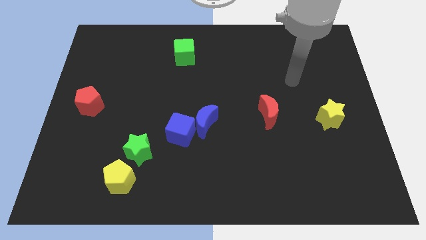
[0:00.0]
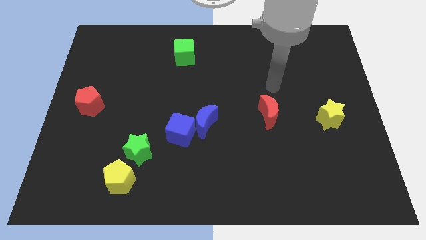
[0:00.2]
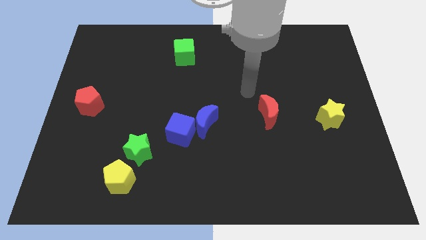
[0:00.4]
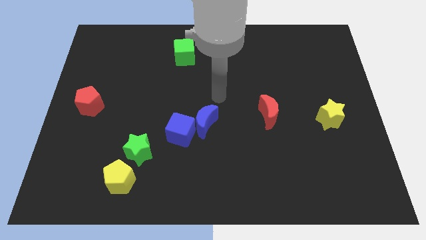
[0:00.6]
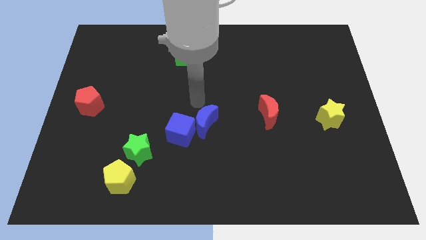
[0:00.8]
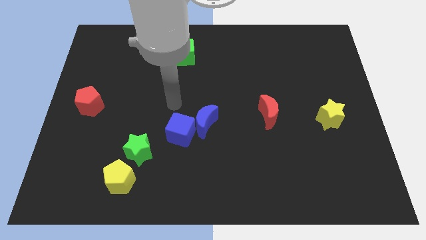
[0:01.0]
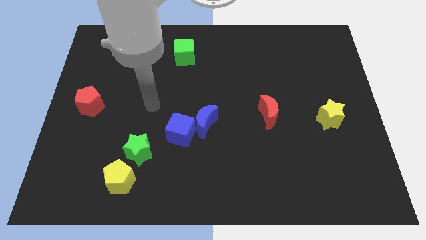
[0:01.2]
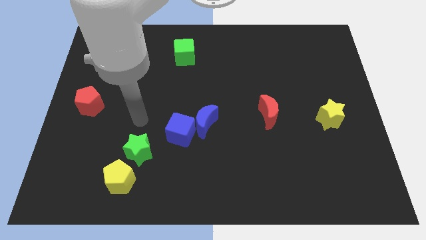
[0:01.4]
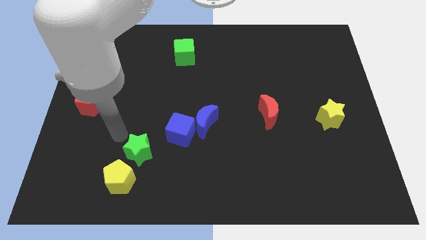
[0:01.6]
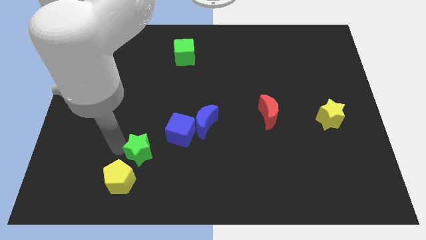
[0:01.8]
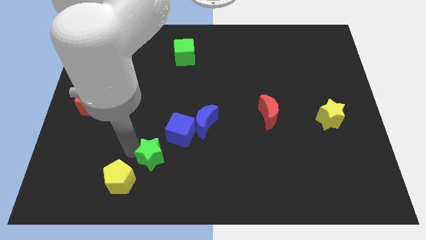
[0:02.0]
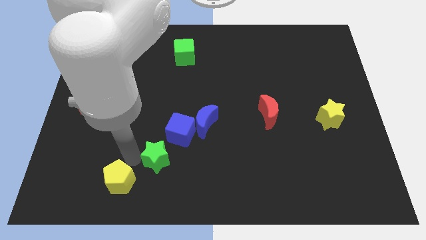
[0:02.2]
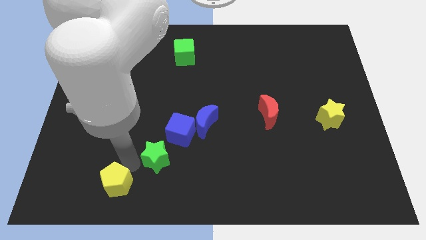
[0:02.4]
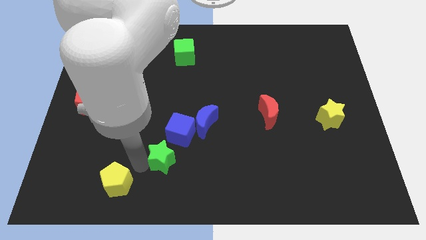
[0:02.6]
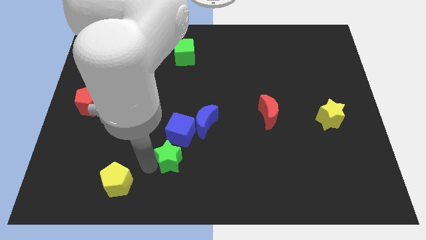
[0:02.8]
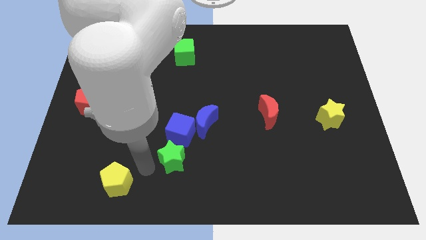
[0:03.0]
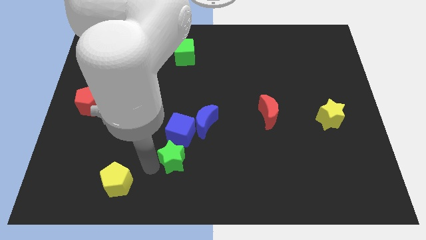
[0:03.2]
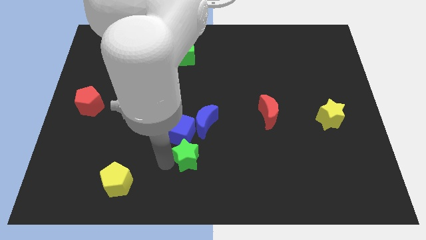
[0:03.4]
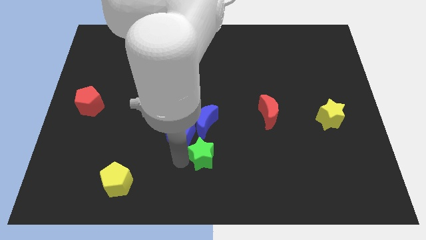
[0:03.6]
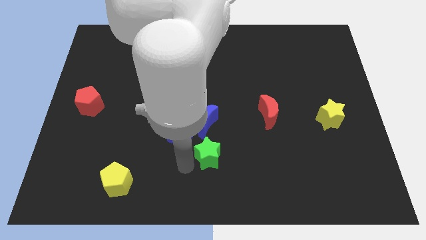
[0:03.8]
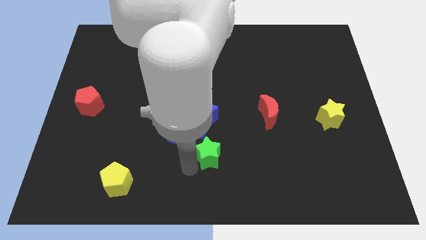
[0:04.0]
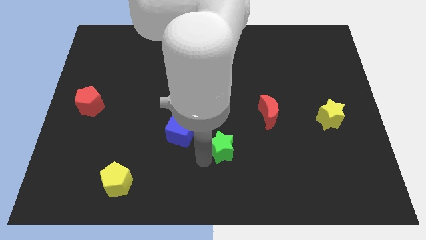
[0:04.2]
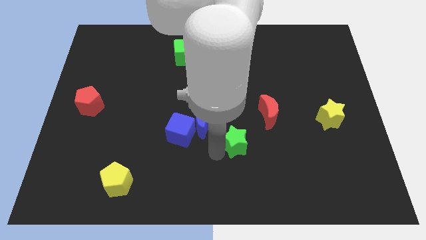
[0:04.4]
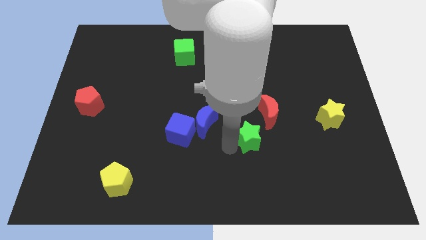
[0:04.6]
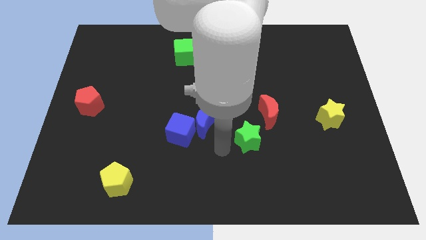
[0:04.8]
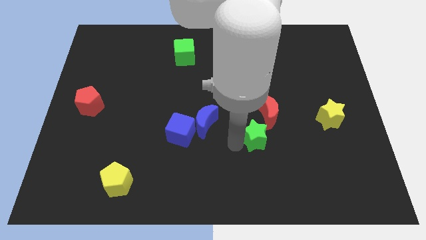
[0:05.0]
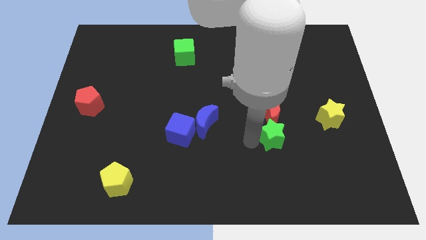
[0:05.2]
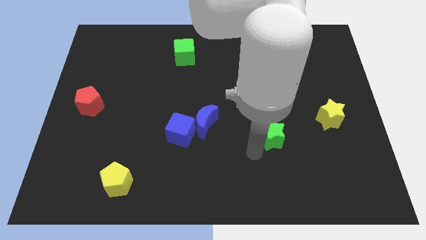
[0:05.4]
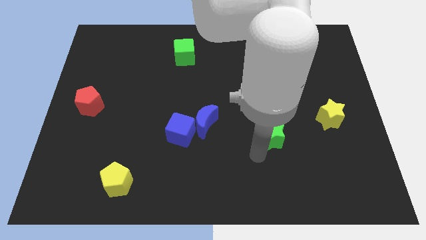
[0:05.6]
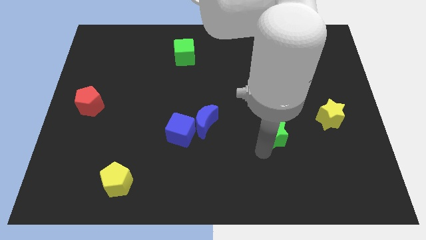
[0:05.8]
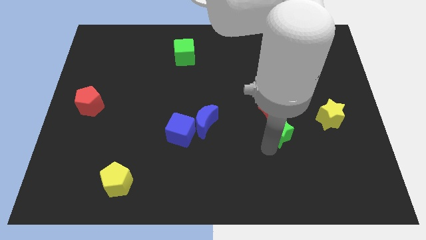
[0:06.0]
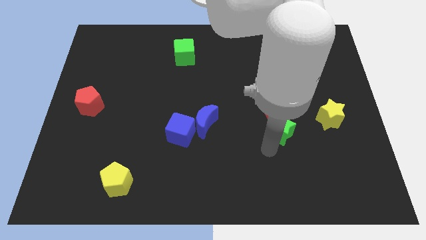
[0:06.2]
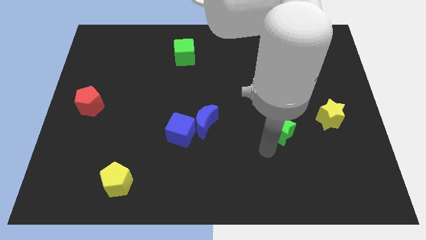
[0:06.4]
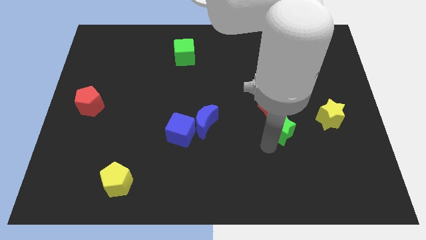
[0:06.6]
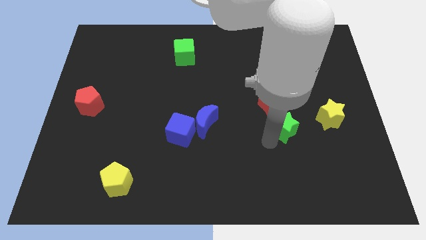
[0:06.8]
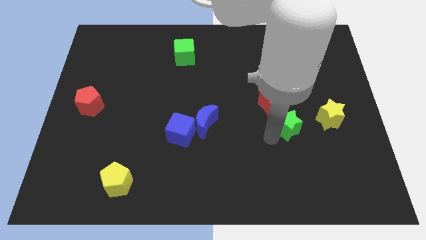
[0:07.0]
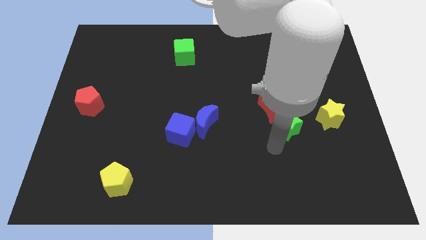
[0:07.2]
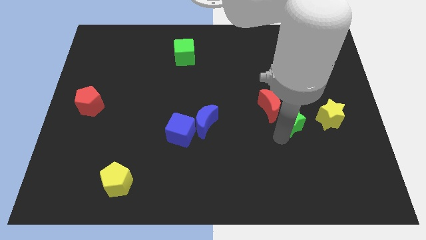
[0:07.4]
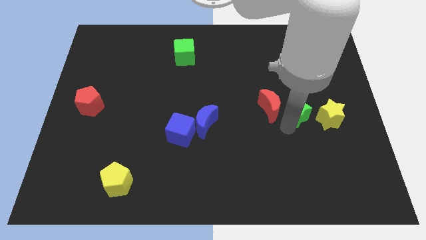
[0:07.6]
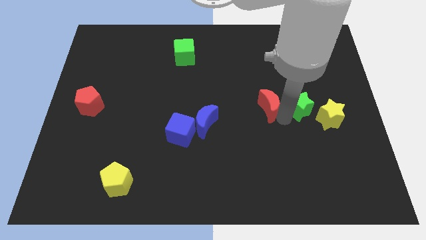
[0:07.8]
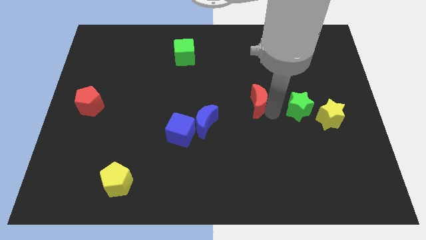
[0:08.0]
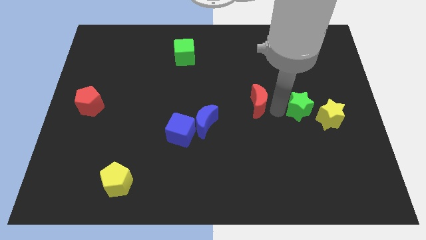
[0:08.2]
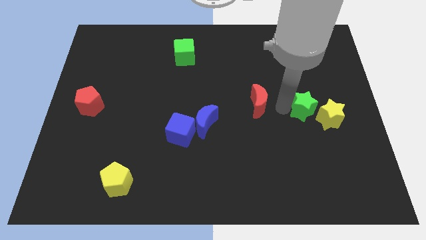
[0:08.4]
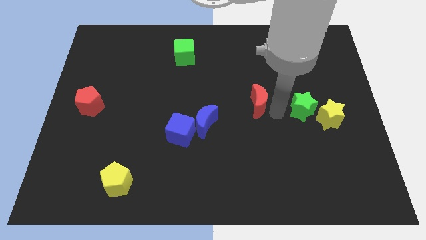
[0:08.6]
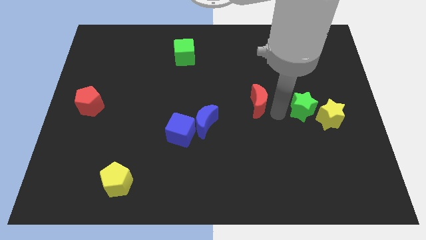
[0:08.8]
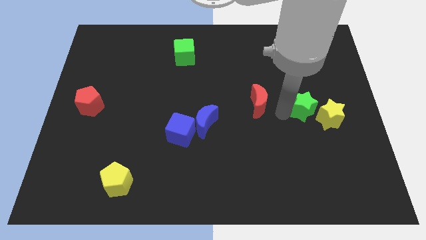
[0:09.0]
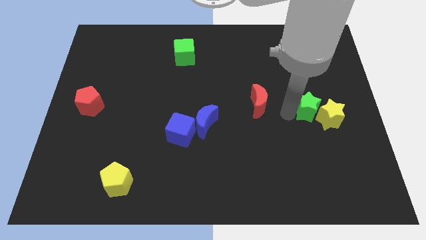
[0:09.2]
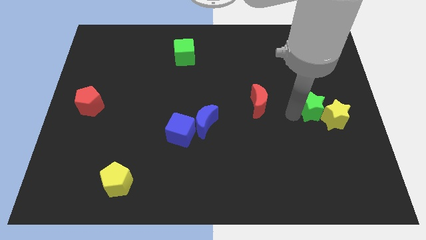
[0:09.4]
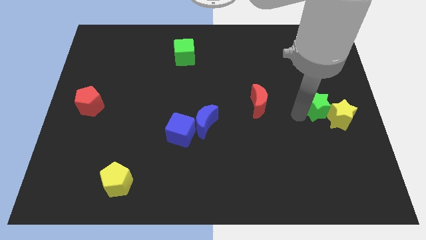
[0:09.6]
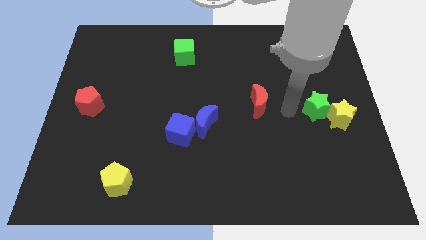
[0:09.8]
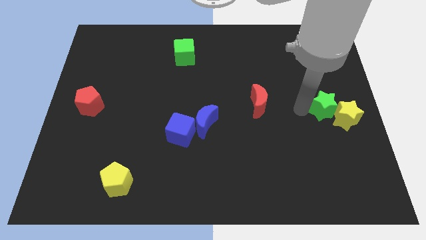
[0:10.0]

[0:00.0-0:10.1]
push the green star to the right side of the board

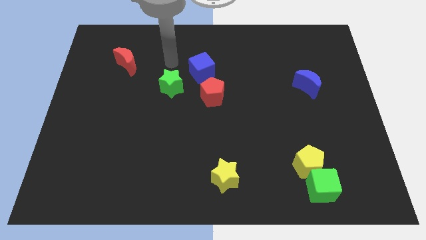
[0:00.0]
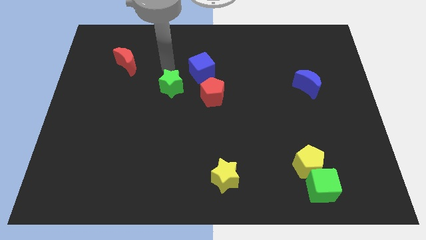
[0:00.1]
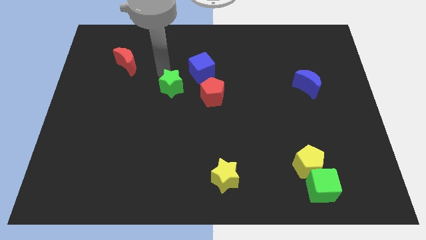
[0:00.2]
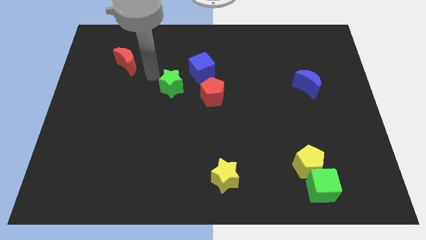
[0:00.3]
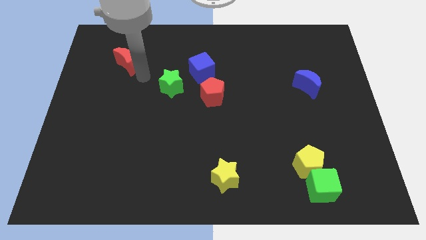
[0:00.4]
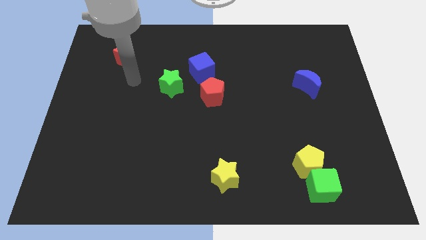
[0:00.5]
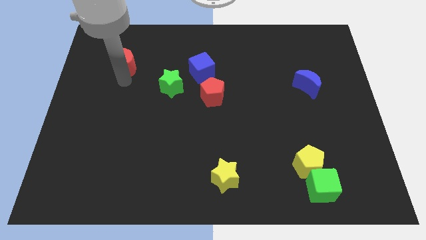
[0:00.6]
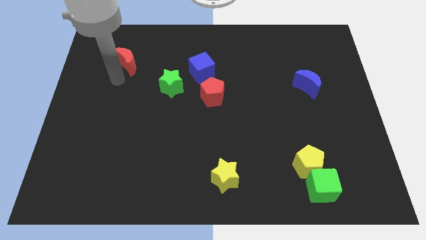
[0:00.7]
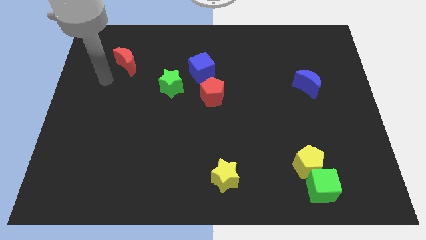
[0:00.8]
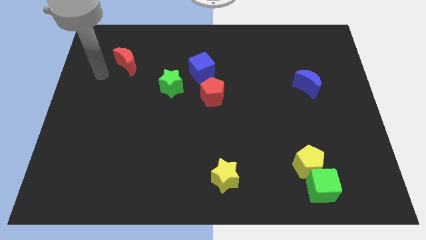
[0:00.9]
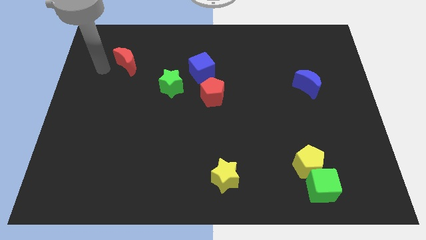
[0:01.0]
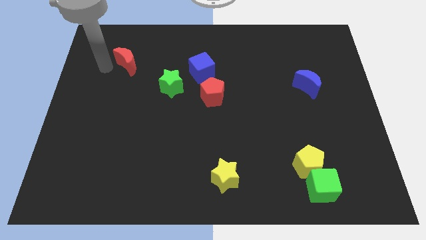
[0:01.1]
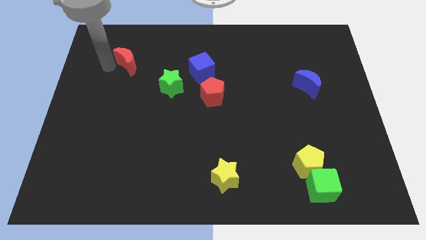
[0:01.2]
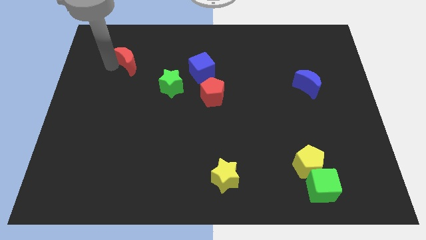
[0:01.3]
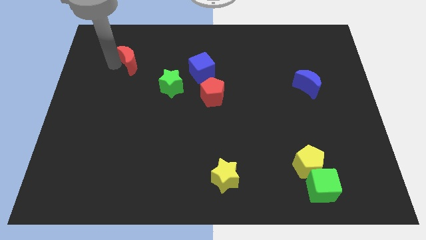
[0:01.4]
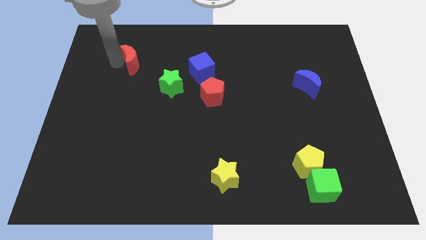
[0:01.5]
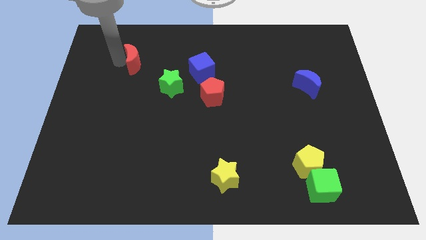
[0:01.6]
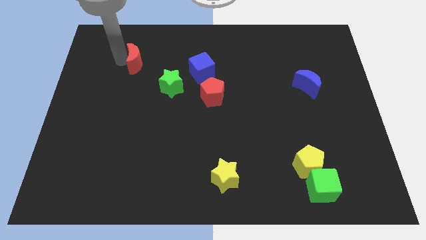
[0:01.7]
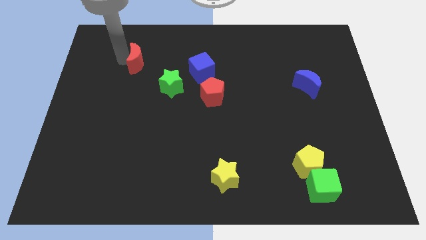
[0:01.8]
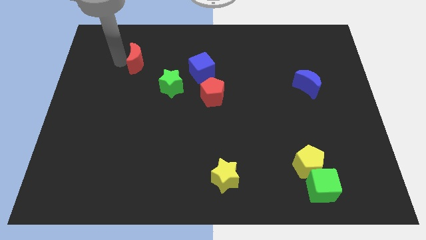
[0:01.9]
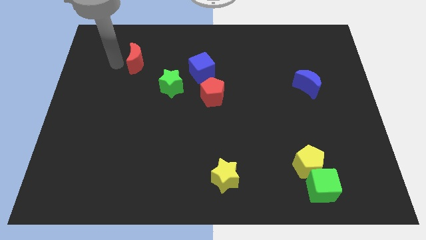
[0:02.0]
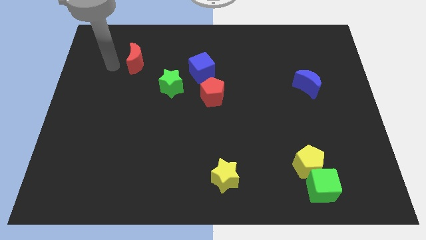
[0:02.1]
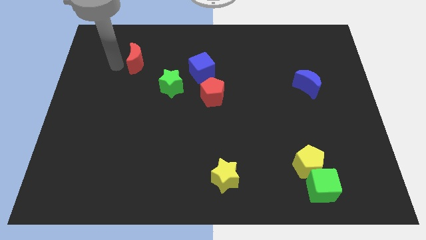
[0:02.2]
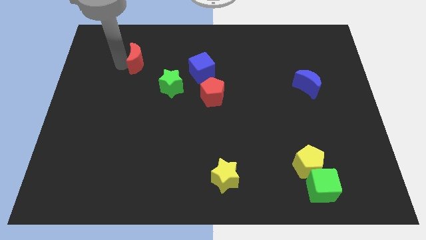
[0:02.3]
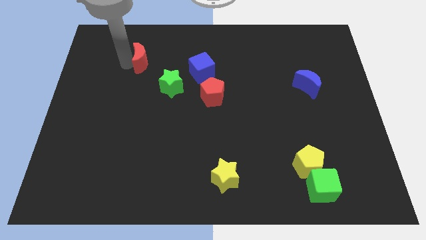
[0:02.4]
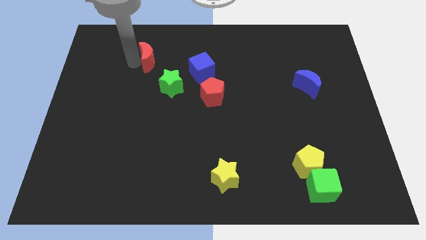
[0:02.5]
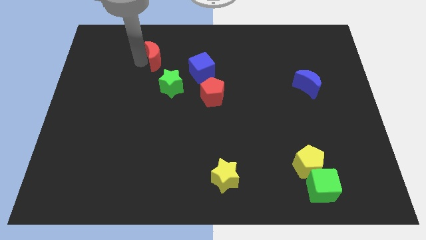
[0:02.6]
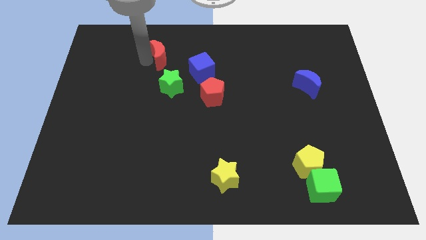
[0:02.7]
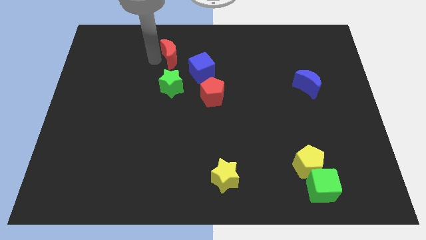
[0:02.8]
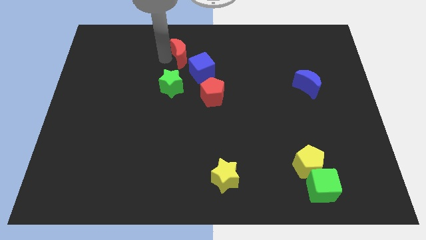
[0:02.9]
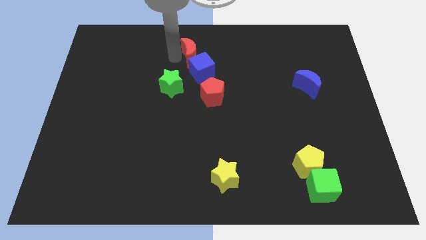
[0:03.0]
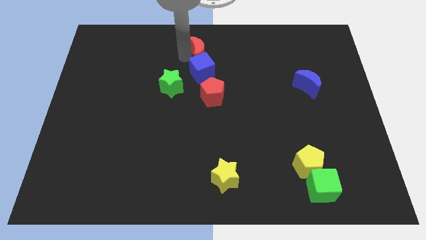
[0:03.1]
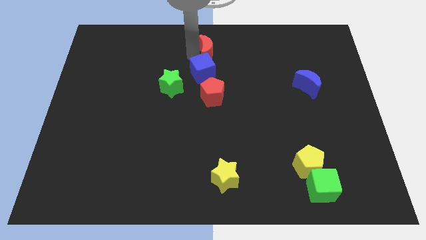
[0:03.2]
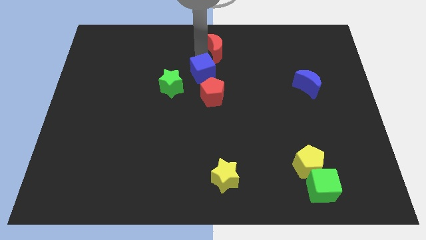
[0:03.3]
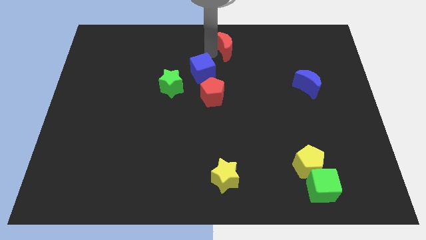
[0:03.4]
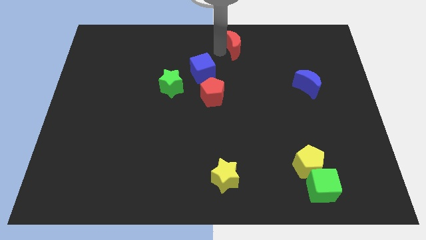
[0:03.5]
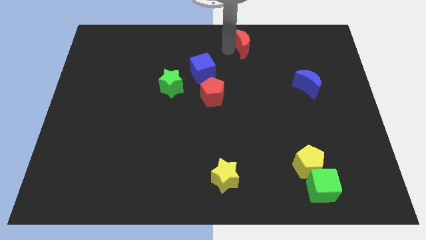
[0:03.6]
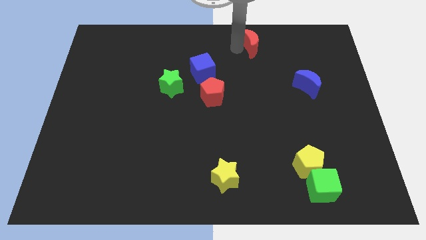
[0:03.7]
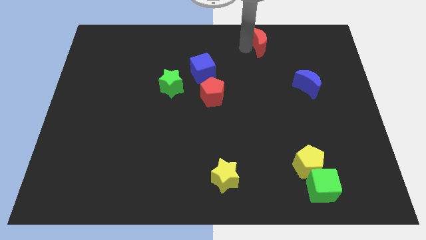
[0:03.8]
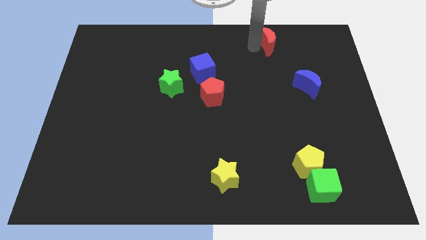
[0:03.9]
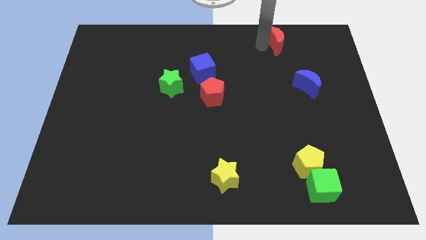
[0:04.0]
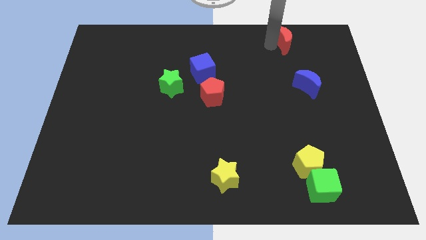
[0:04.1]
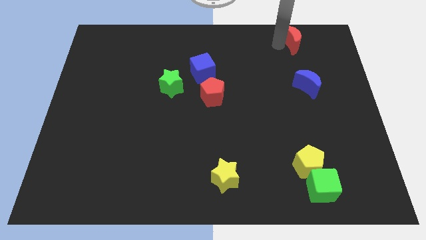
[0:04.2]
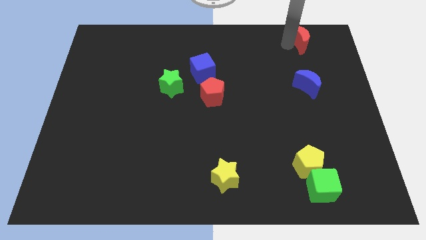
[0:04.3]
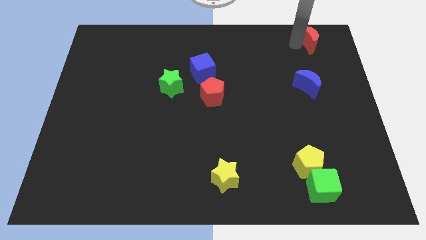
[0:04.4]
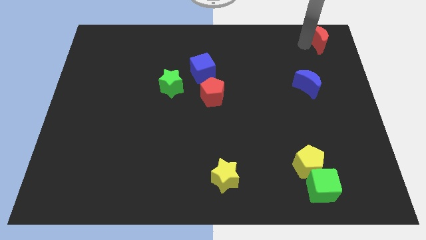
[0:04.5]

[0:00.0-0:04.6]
put the red moon to the top right corner
